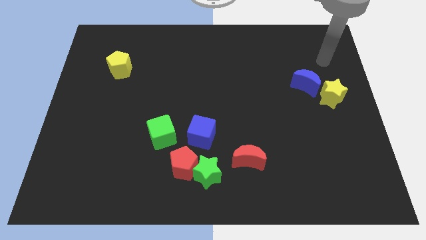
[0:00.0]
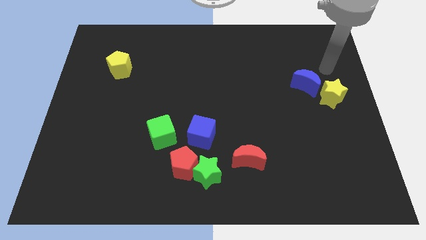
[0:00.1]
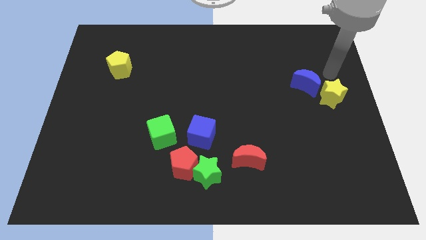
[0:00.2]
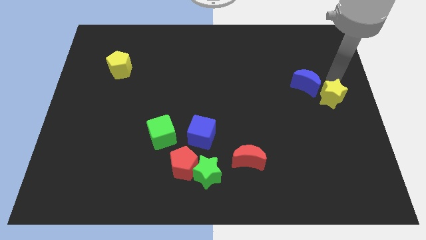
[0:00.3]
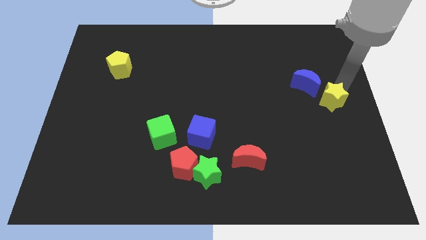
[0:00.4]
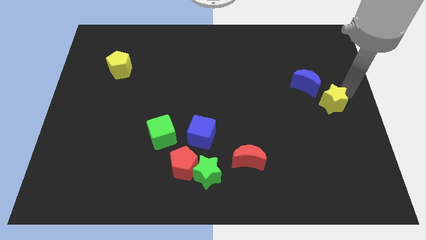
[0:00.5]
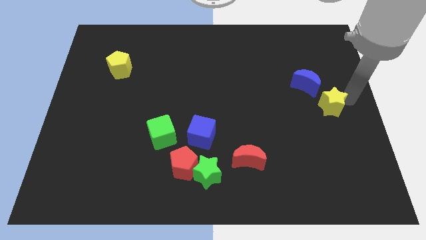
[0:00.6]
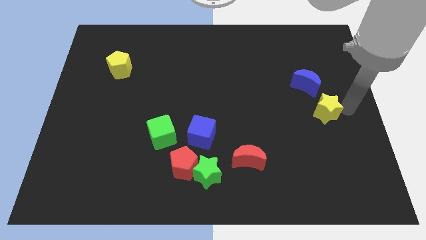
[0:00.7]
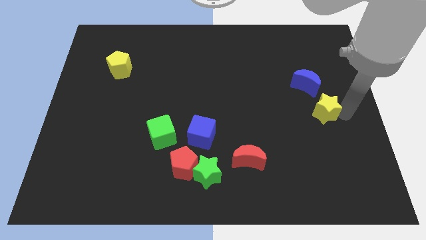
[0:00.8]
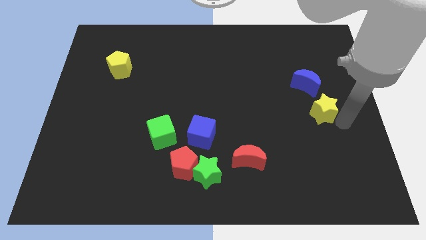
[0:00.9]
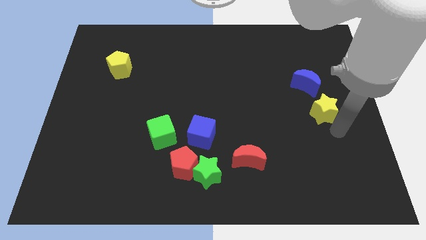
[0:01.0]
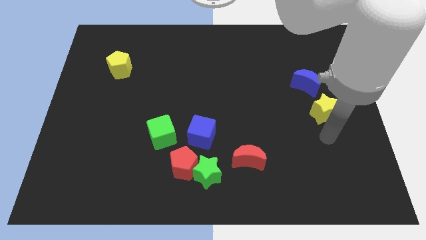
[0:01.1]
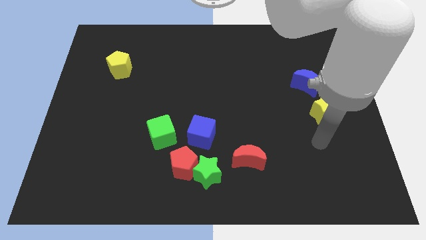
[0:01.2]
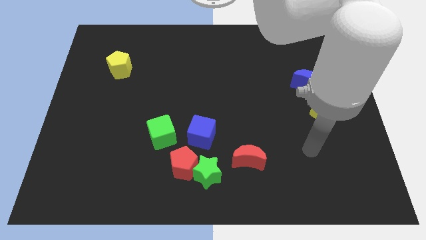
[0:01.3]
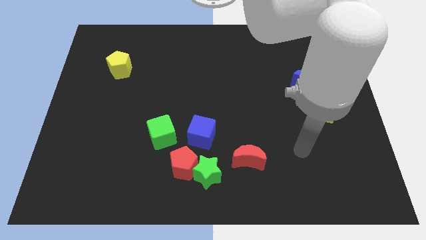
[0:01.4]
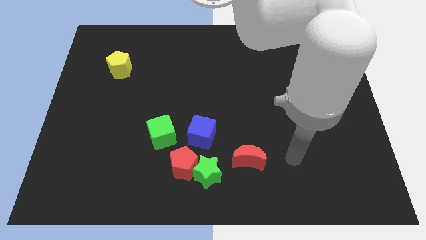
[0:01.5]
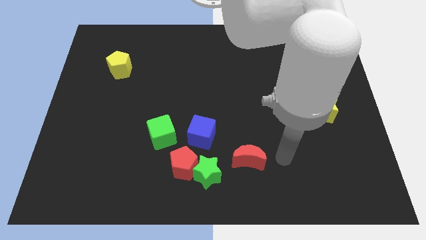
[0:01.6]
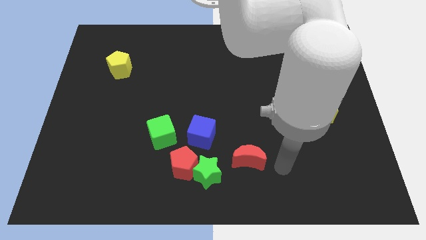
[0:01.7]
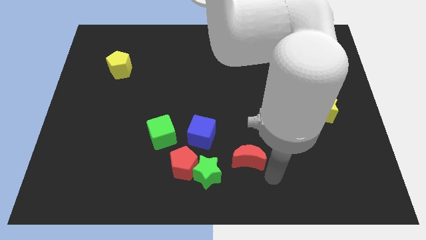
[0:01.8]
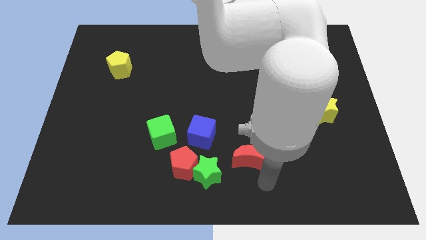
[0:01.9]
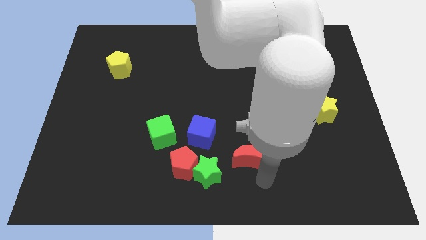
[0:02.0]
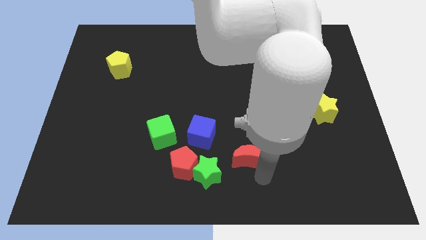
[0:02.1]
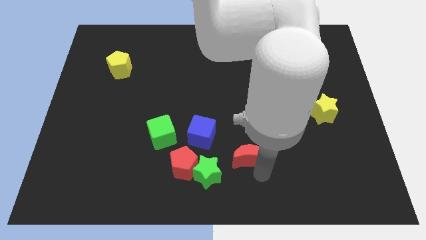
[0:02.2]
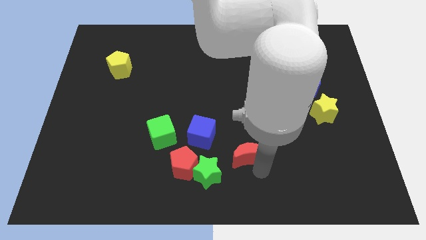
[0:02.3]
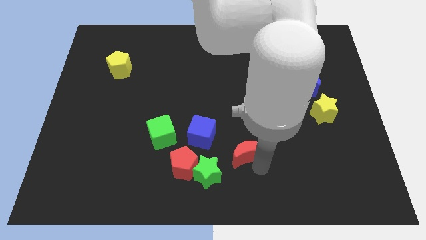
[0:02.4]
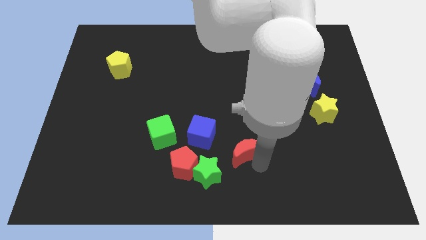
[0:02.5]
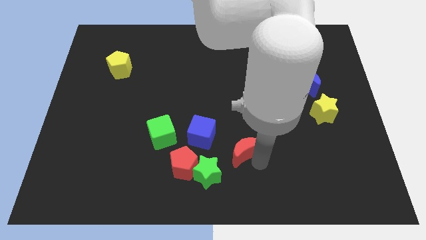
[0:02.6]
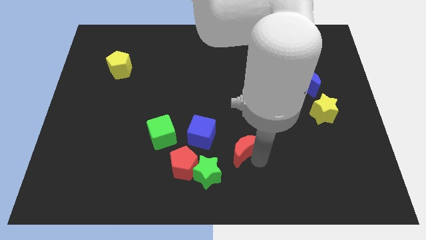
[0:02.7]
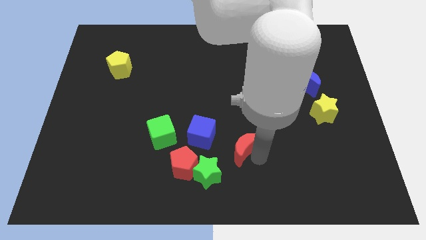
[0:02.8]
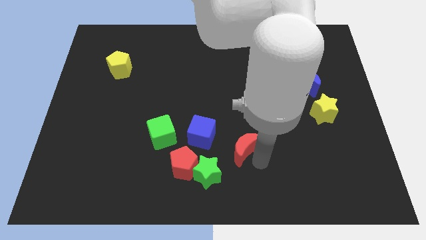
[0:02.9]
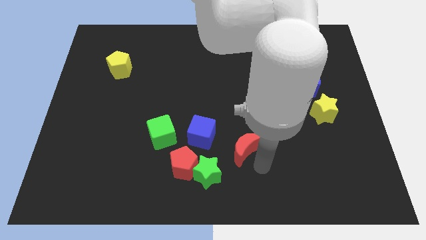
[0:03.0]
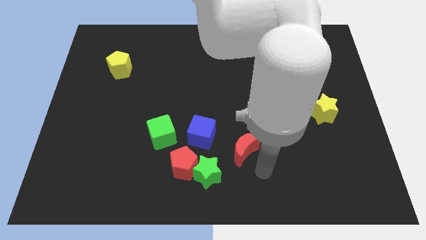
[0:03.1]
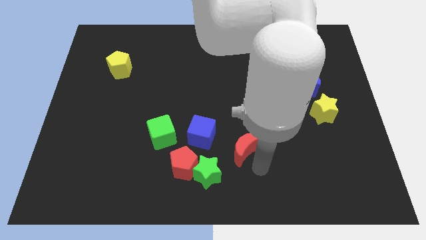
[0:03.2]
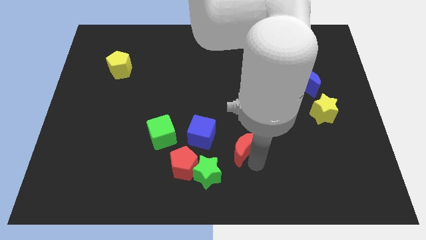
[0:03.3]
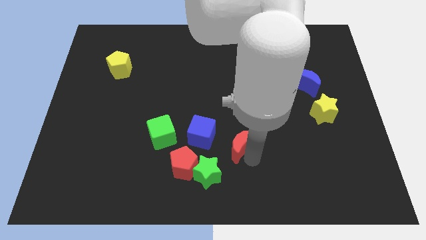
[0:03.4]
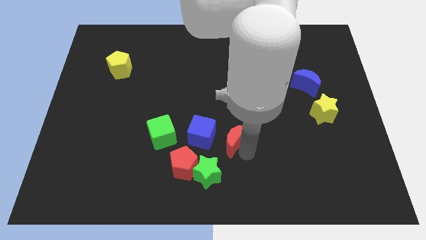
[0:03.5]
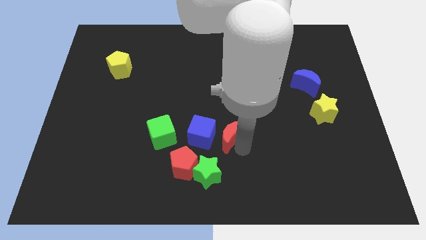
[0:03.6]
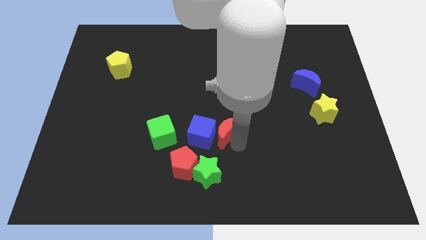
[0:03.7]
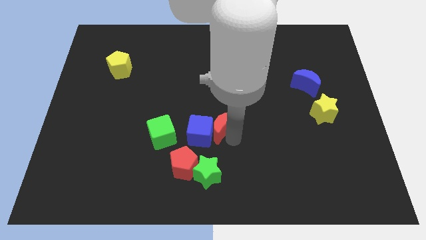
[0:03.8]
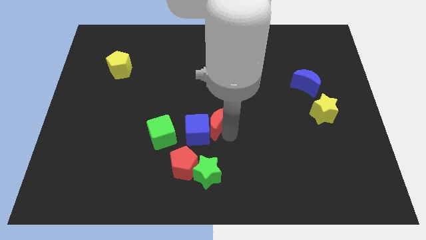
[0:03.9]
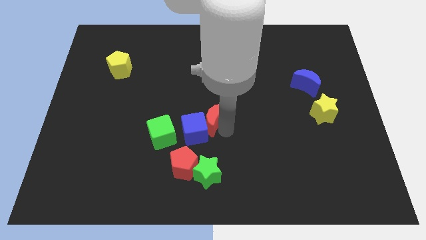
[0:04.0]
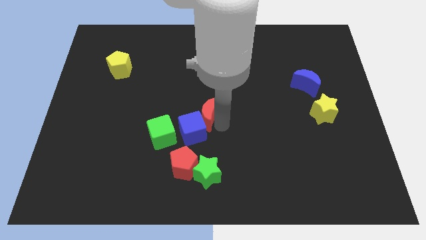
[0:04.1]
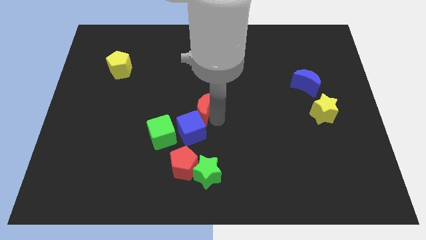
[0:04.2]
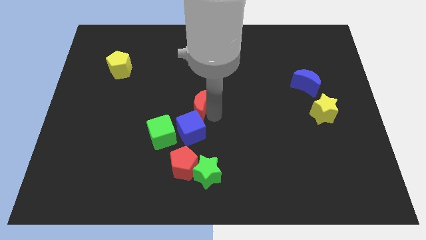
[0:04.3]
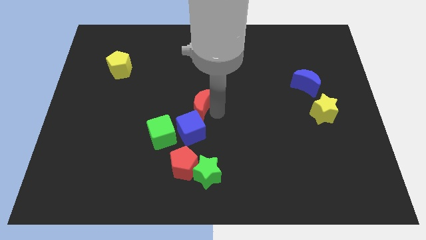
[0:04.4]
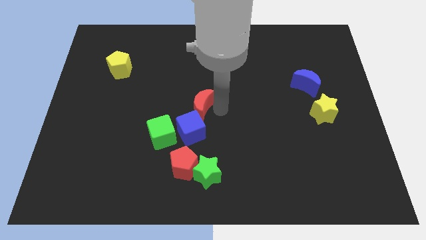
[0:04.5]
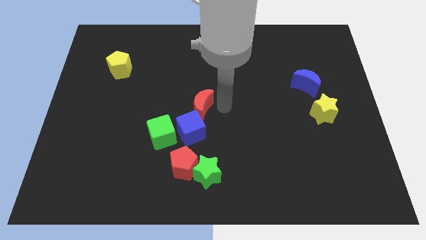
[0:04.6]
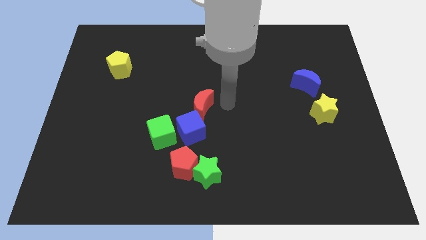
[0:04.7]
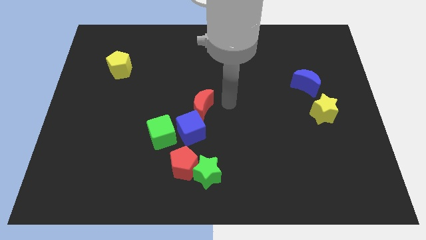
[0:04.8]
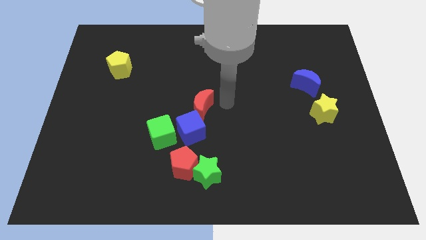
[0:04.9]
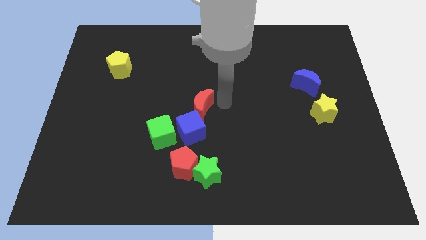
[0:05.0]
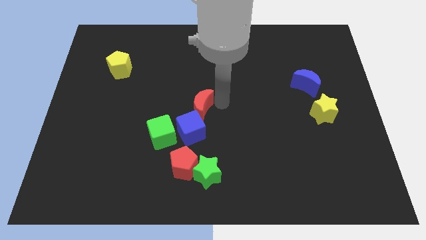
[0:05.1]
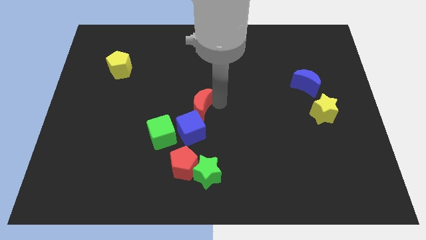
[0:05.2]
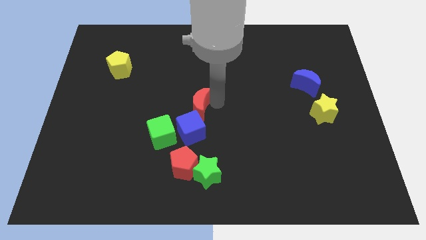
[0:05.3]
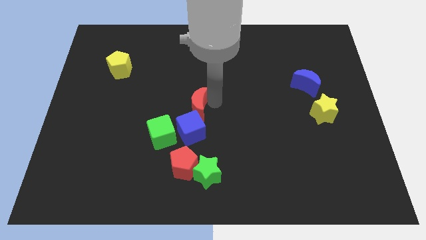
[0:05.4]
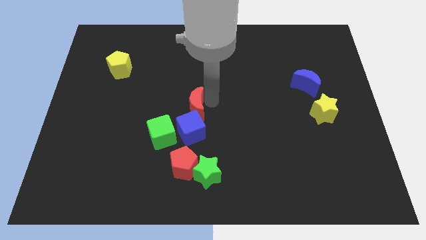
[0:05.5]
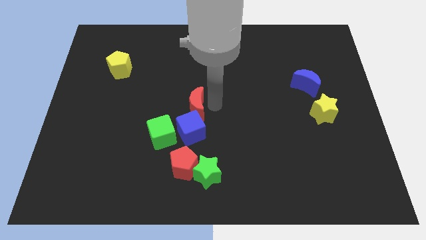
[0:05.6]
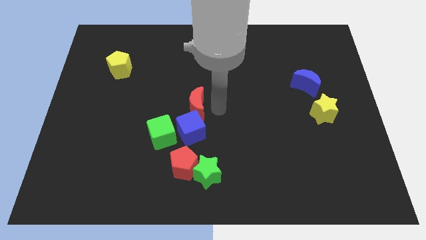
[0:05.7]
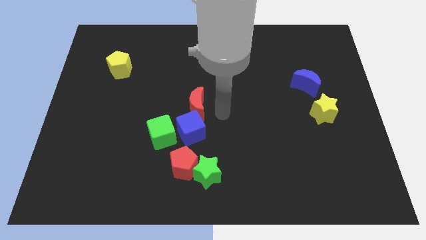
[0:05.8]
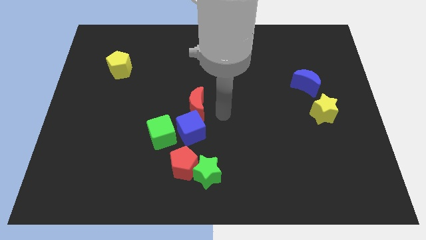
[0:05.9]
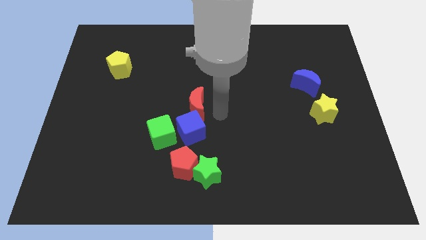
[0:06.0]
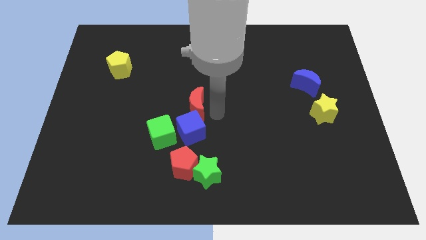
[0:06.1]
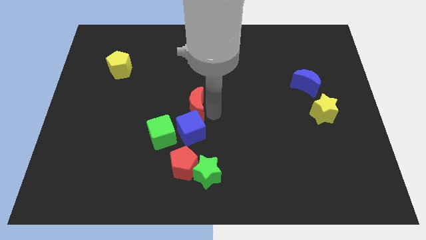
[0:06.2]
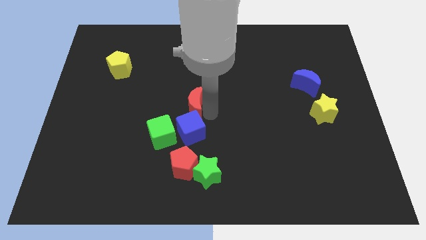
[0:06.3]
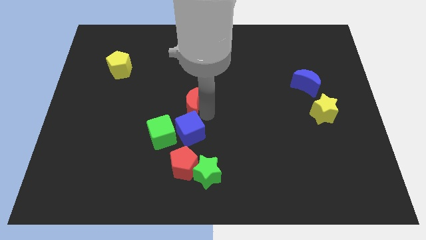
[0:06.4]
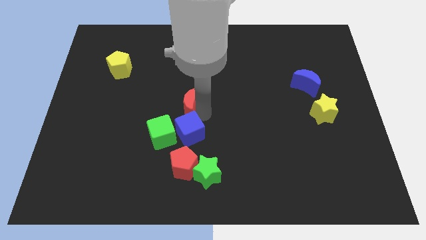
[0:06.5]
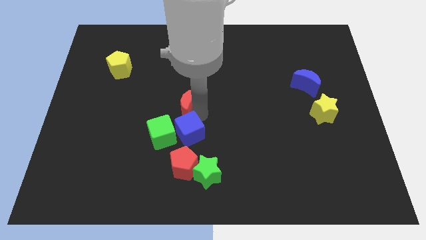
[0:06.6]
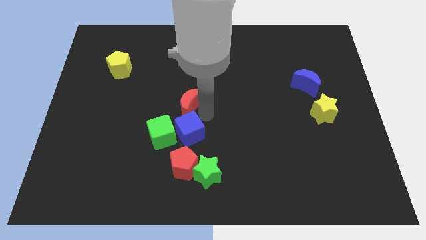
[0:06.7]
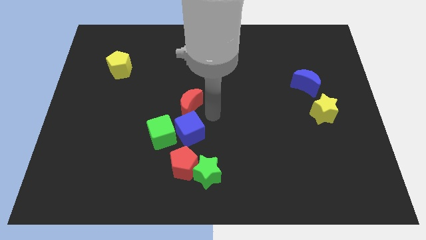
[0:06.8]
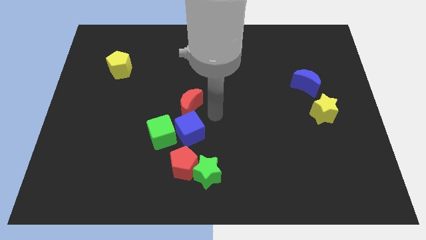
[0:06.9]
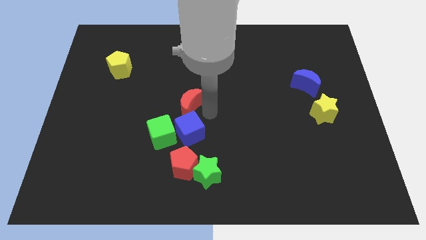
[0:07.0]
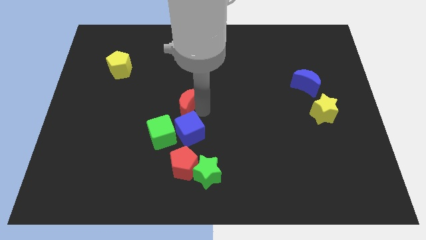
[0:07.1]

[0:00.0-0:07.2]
slide the red moon diagonally up and left

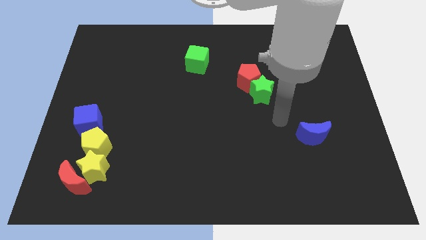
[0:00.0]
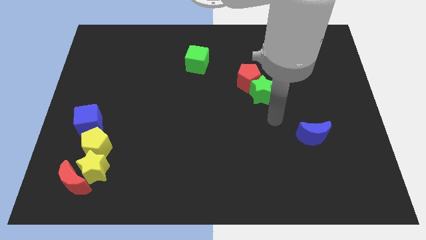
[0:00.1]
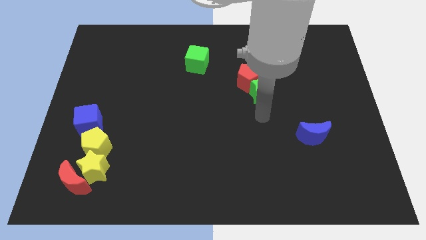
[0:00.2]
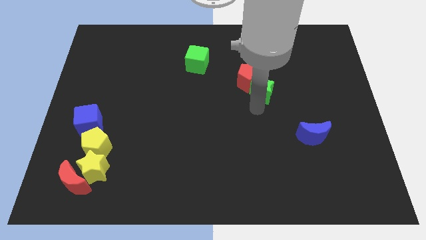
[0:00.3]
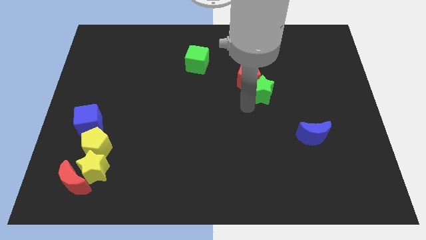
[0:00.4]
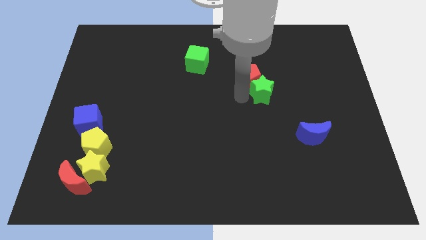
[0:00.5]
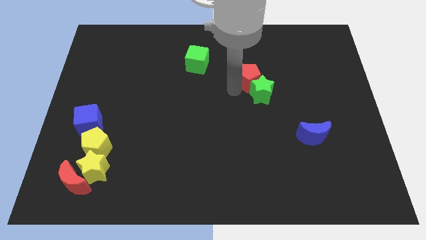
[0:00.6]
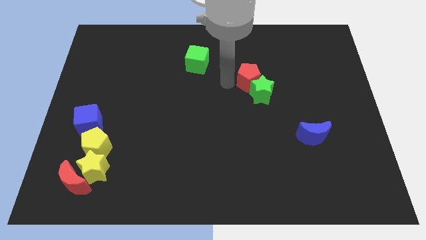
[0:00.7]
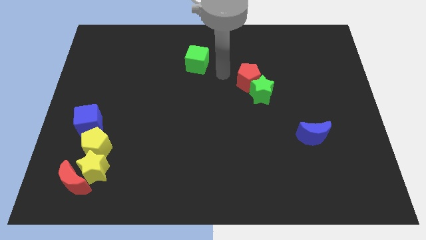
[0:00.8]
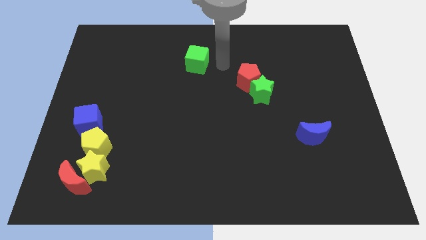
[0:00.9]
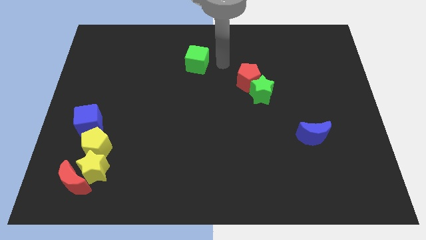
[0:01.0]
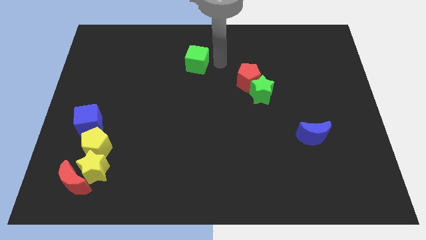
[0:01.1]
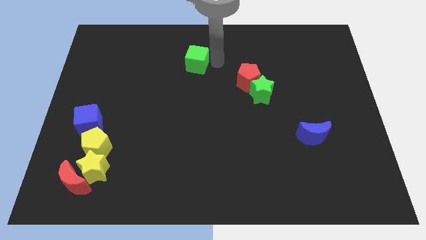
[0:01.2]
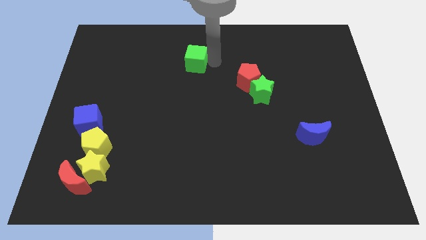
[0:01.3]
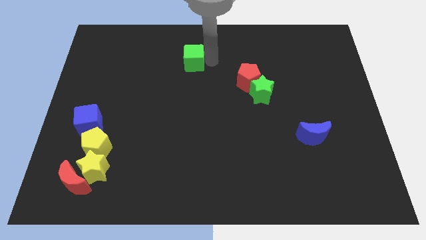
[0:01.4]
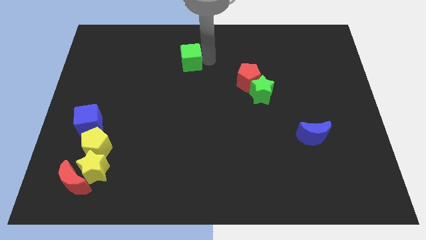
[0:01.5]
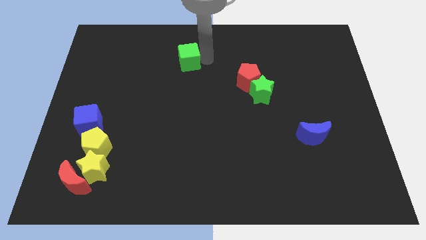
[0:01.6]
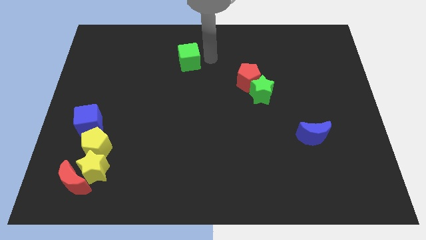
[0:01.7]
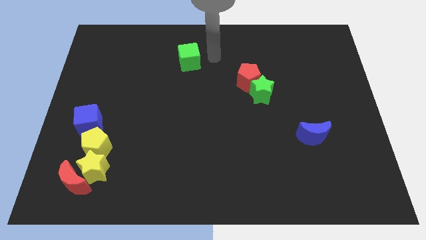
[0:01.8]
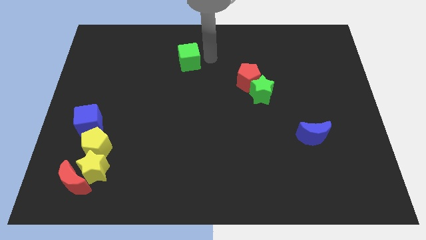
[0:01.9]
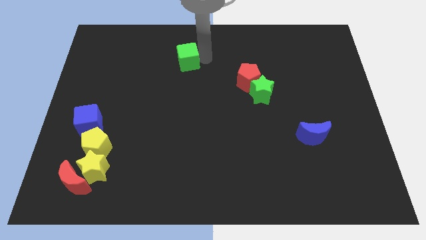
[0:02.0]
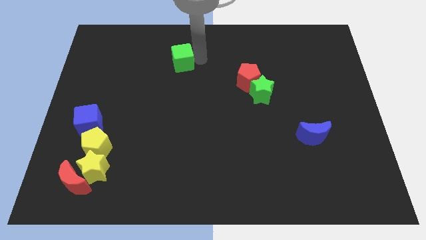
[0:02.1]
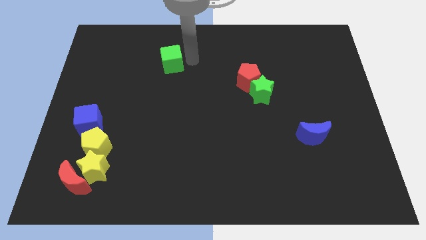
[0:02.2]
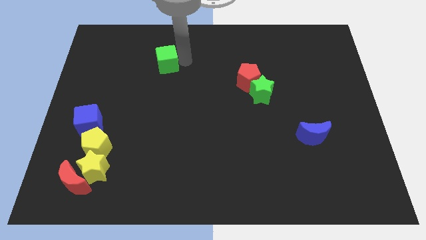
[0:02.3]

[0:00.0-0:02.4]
move the green cube a little to the left
